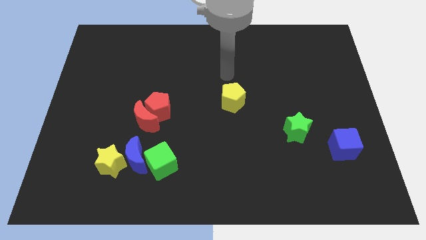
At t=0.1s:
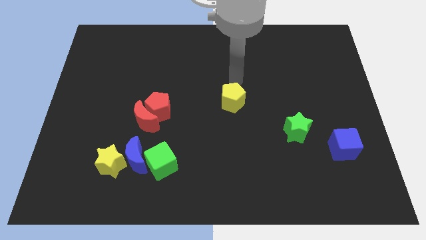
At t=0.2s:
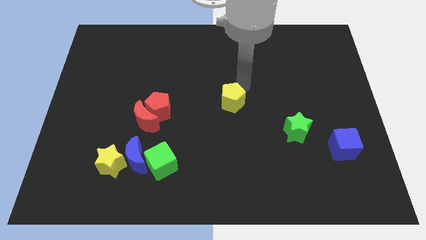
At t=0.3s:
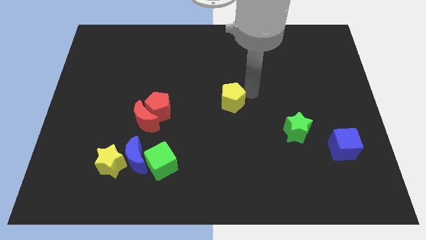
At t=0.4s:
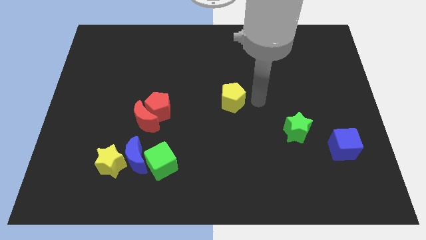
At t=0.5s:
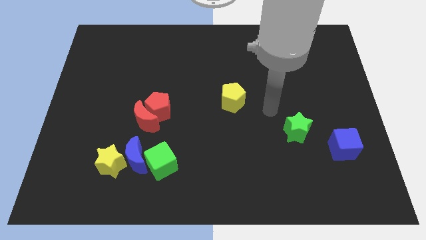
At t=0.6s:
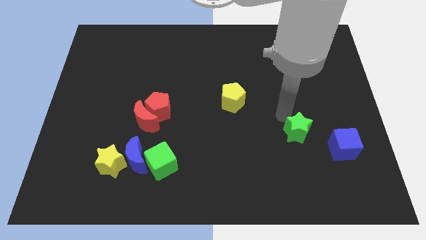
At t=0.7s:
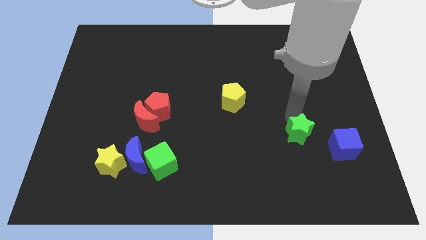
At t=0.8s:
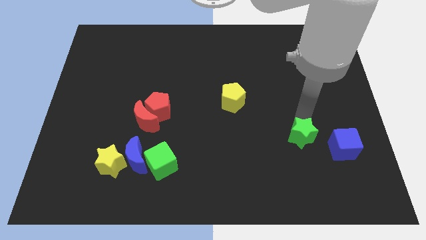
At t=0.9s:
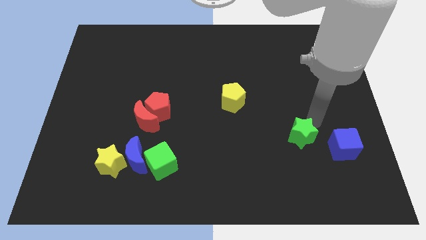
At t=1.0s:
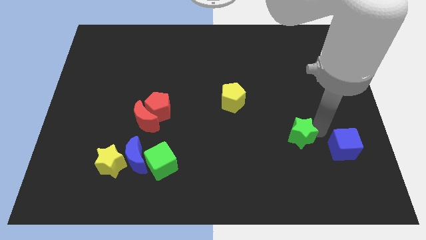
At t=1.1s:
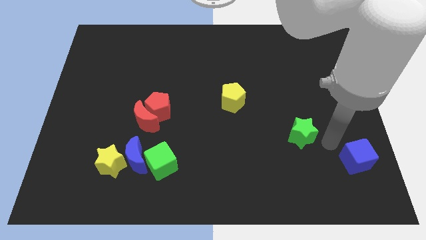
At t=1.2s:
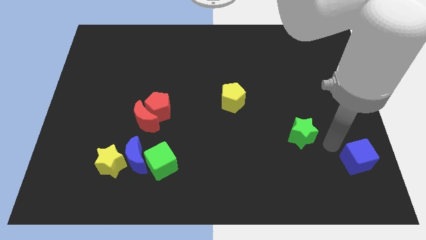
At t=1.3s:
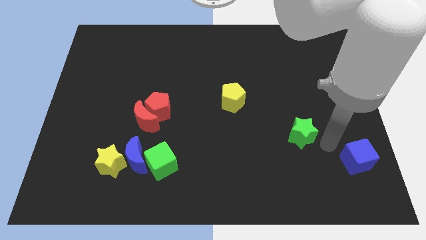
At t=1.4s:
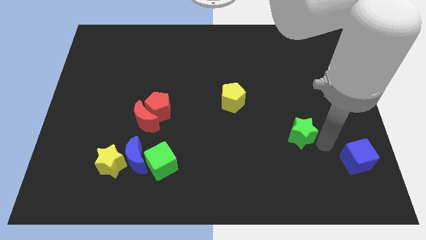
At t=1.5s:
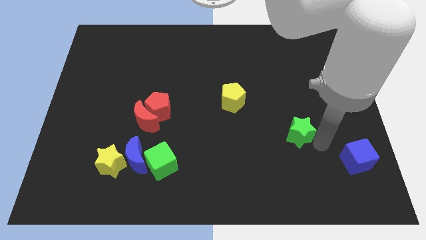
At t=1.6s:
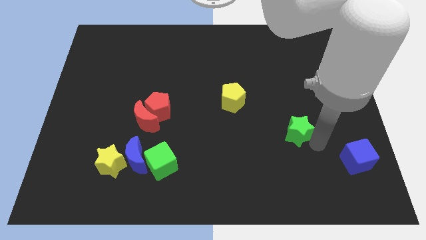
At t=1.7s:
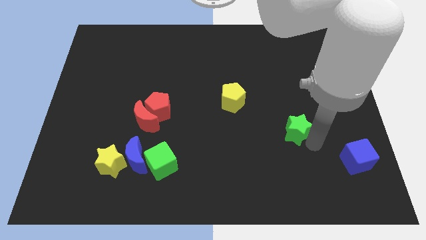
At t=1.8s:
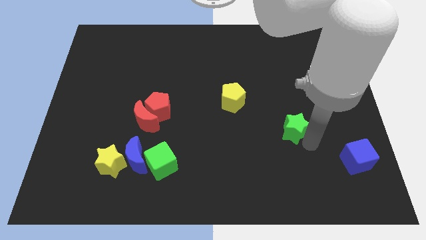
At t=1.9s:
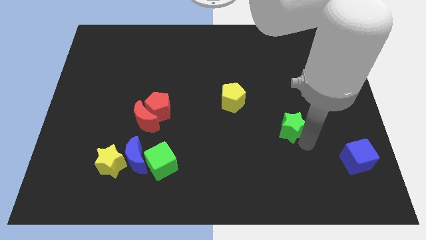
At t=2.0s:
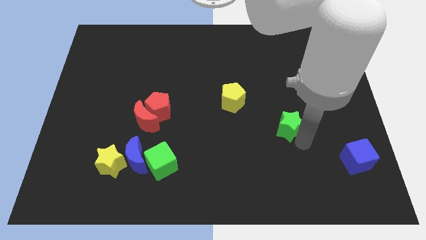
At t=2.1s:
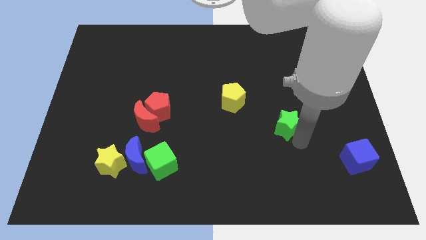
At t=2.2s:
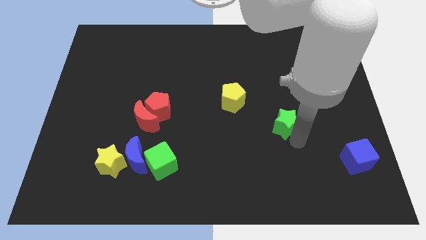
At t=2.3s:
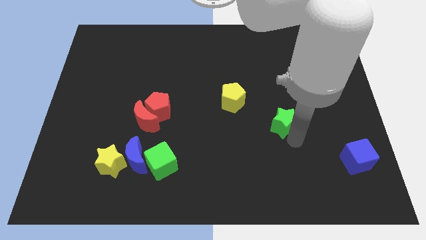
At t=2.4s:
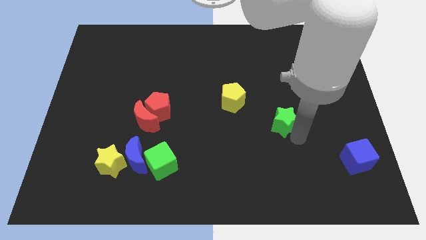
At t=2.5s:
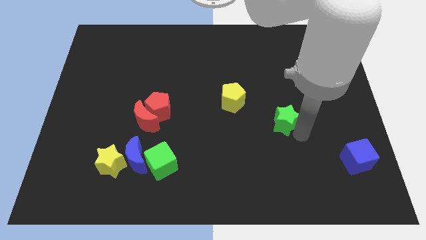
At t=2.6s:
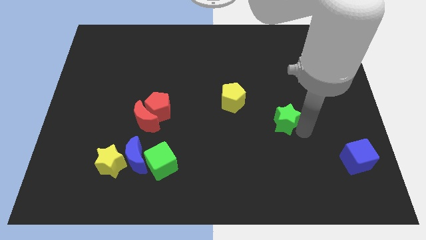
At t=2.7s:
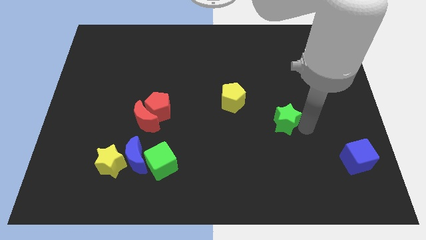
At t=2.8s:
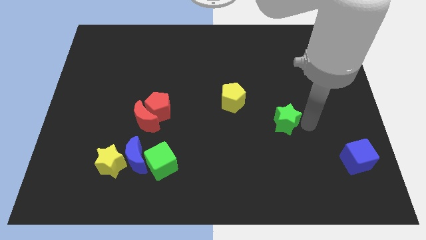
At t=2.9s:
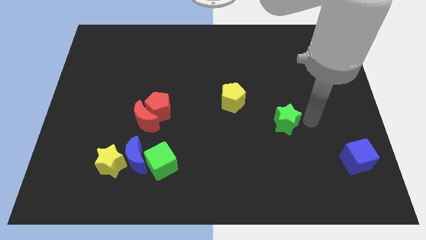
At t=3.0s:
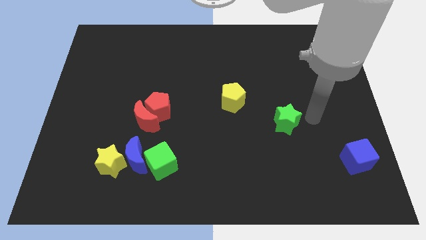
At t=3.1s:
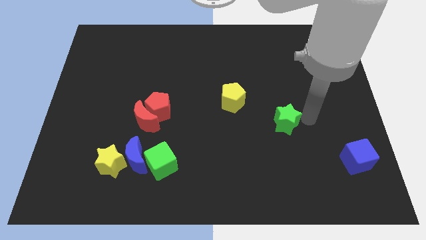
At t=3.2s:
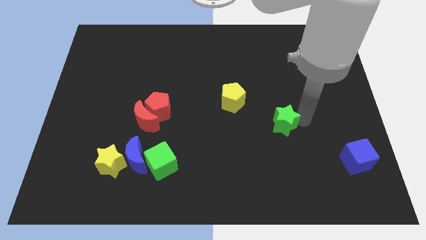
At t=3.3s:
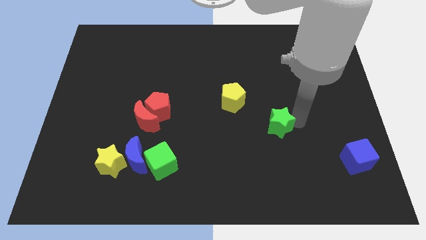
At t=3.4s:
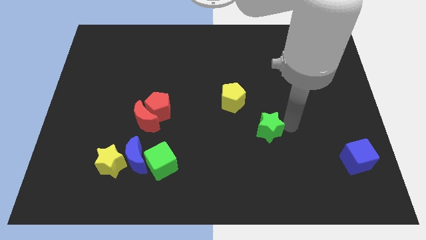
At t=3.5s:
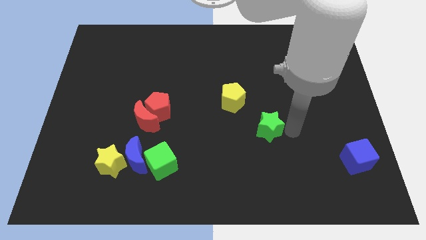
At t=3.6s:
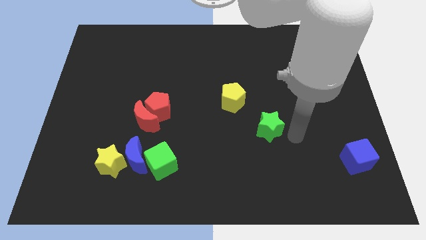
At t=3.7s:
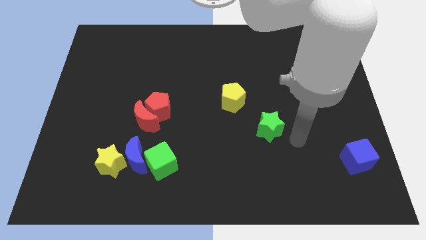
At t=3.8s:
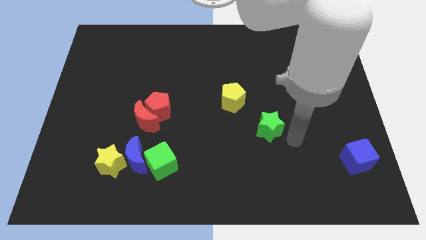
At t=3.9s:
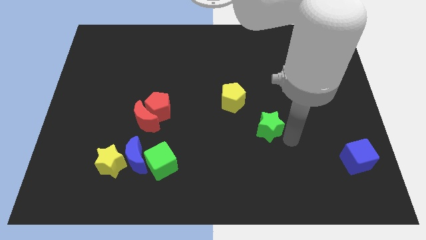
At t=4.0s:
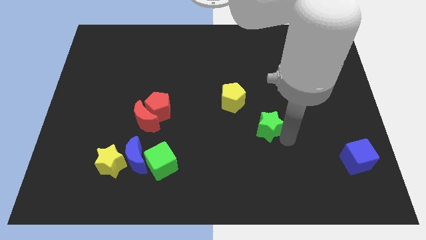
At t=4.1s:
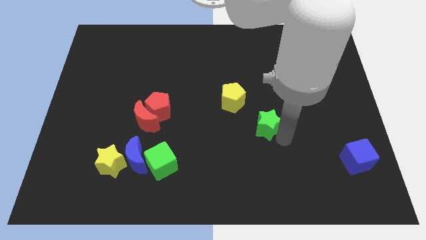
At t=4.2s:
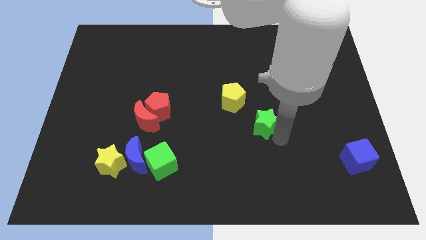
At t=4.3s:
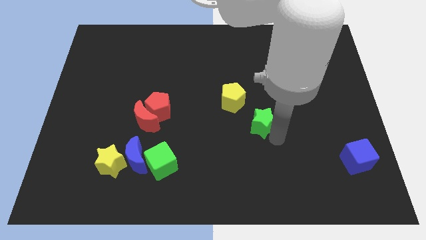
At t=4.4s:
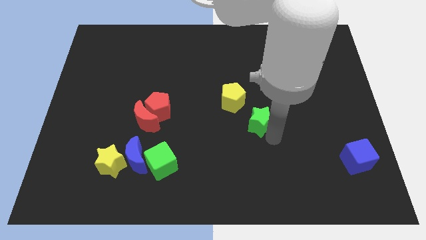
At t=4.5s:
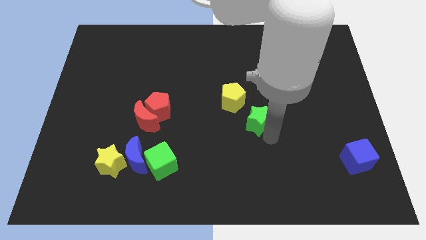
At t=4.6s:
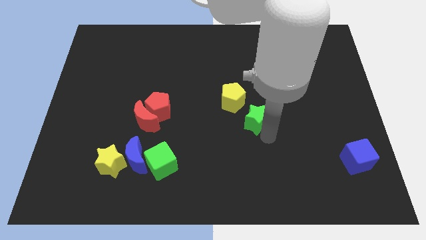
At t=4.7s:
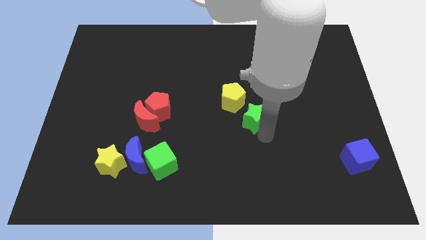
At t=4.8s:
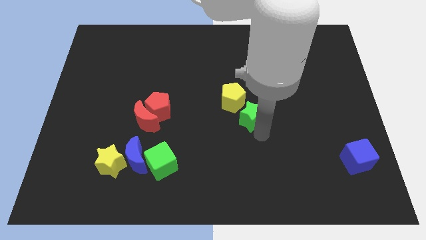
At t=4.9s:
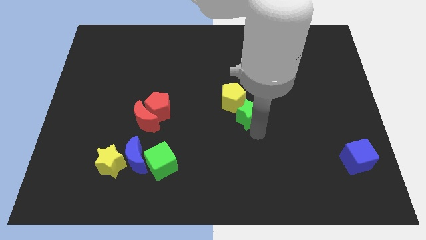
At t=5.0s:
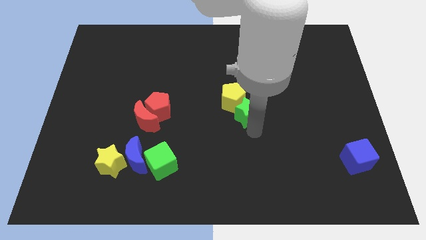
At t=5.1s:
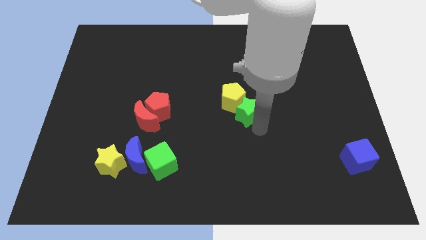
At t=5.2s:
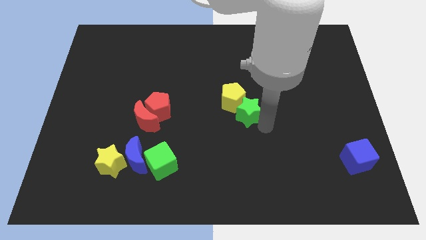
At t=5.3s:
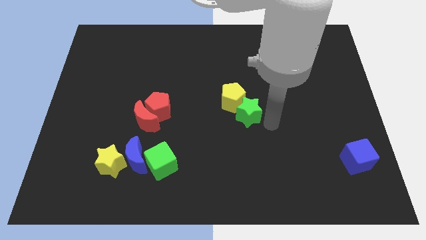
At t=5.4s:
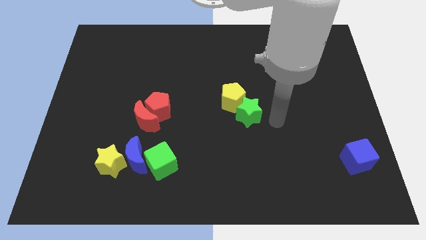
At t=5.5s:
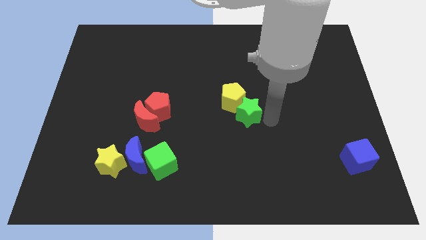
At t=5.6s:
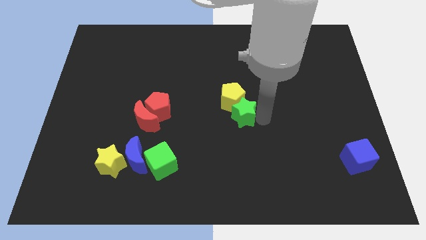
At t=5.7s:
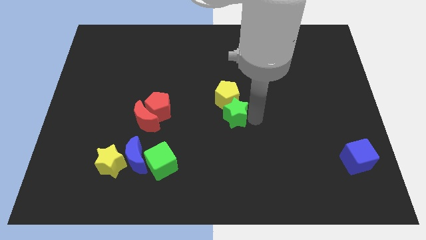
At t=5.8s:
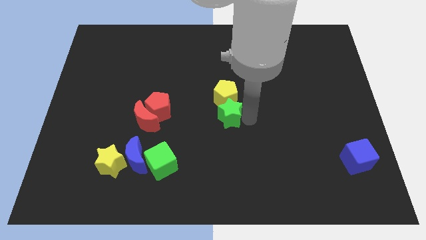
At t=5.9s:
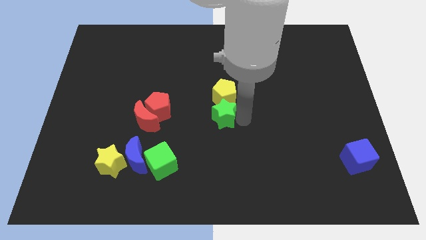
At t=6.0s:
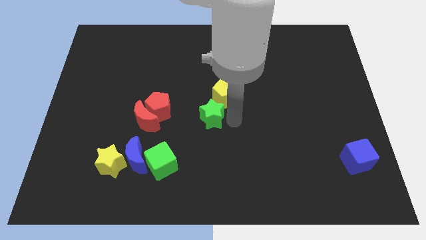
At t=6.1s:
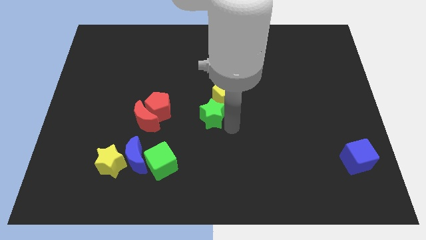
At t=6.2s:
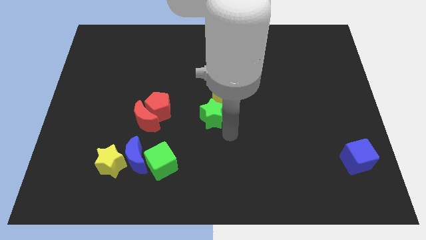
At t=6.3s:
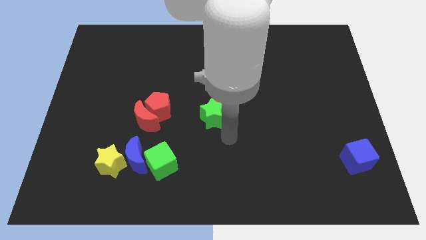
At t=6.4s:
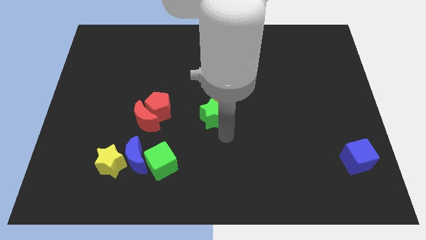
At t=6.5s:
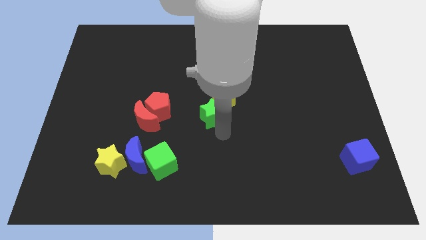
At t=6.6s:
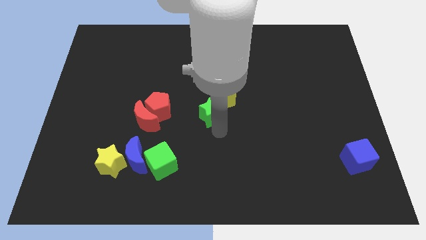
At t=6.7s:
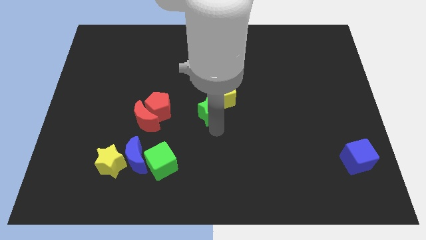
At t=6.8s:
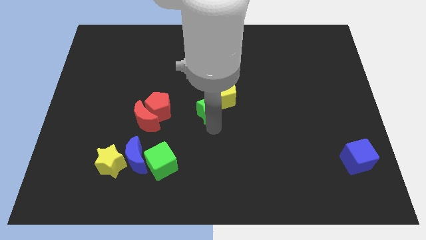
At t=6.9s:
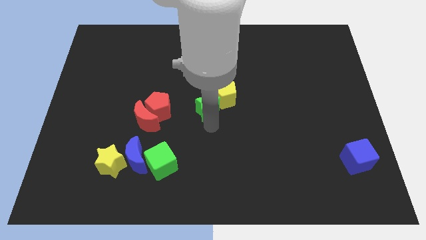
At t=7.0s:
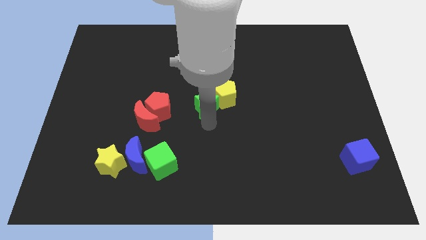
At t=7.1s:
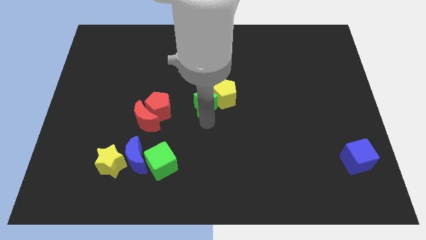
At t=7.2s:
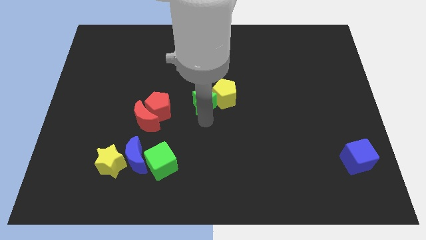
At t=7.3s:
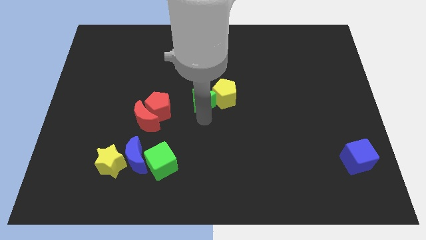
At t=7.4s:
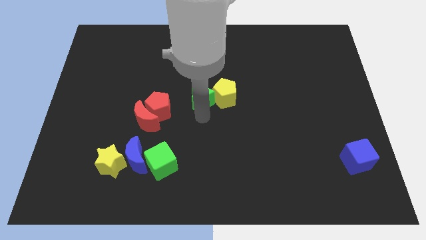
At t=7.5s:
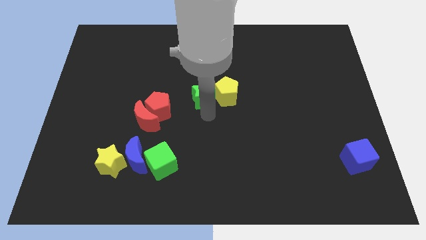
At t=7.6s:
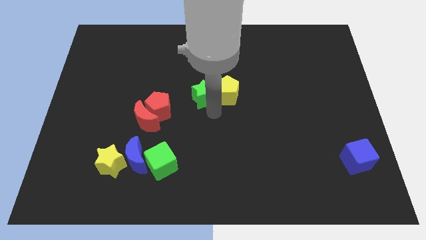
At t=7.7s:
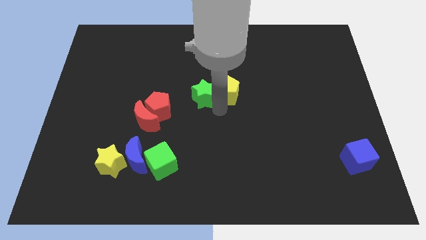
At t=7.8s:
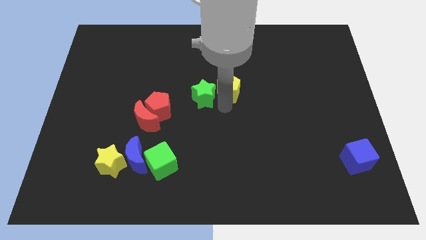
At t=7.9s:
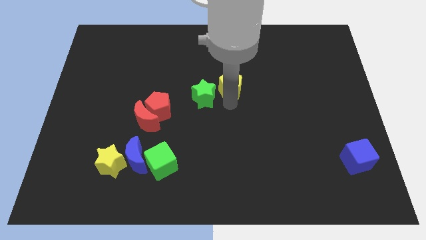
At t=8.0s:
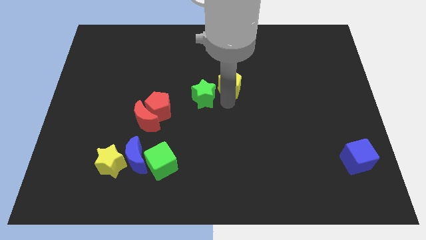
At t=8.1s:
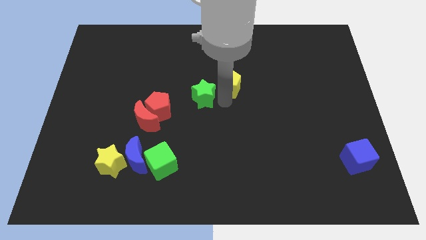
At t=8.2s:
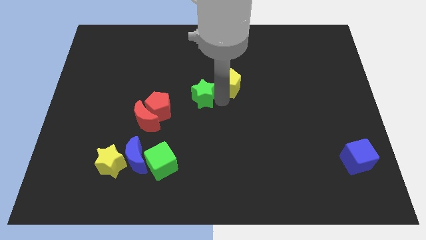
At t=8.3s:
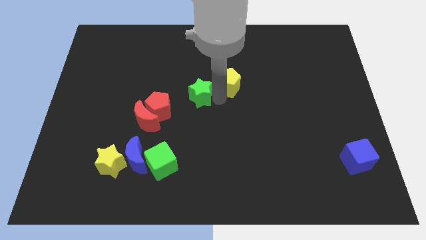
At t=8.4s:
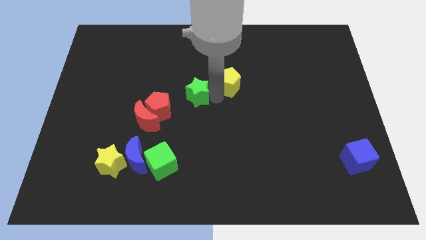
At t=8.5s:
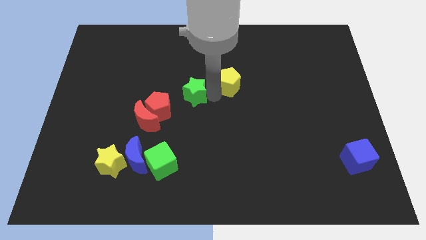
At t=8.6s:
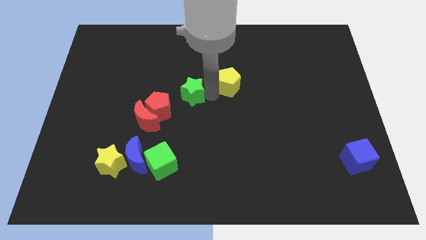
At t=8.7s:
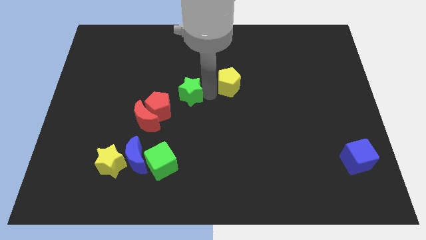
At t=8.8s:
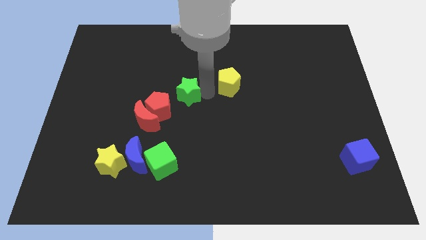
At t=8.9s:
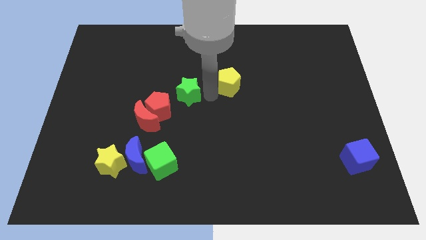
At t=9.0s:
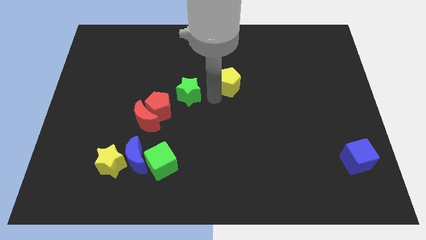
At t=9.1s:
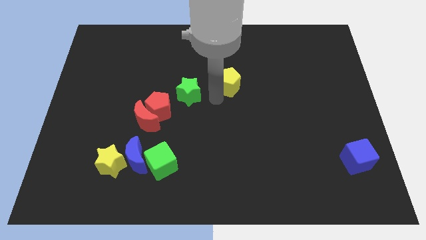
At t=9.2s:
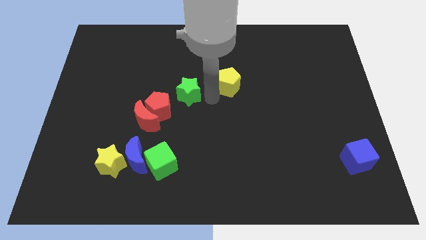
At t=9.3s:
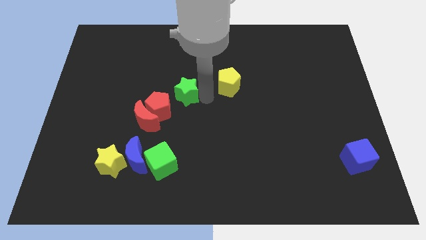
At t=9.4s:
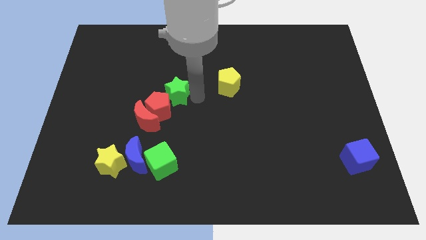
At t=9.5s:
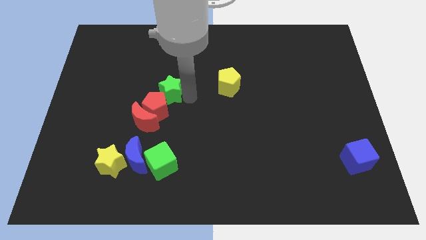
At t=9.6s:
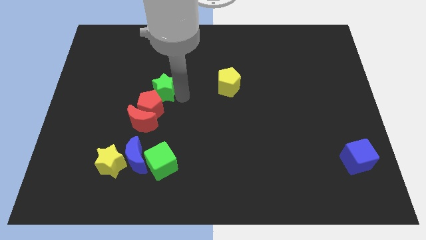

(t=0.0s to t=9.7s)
move the green star above the red moon
